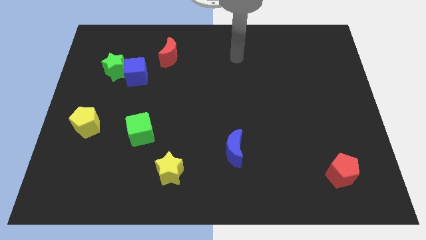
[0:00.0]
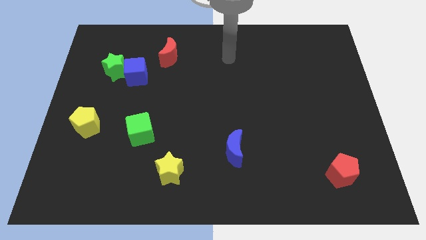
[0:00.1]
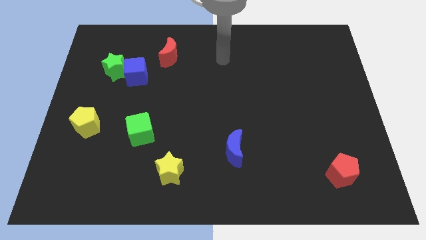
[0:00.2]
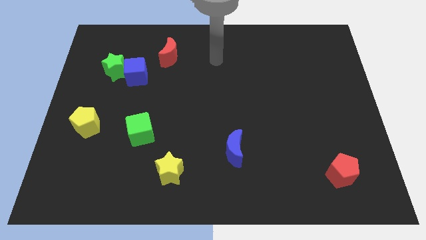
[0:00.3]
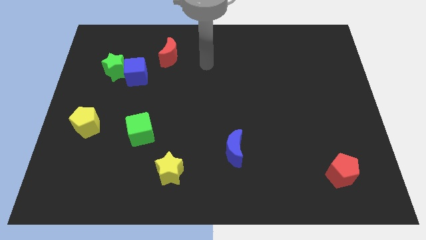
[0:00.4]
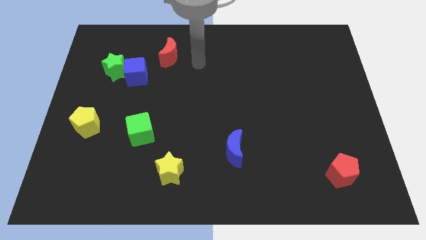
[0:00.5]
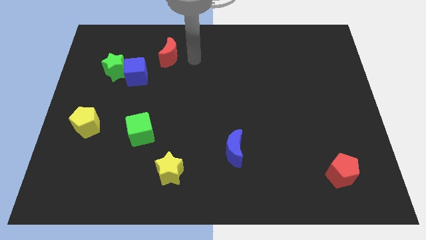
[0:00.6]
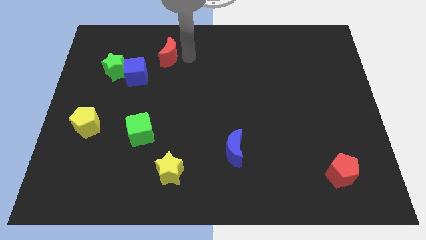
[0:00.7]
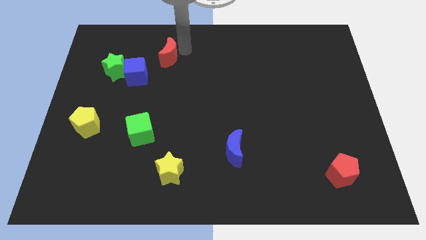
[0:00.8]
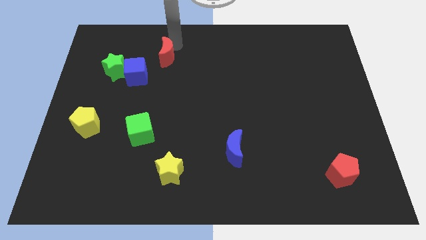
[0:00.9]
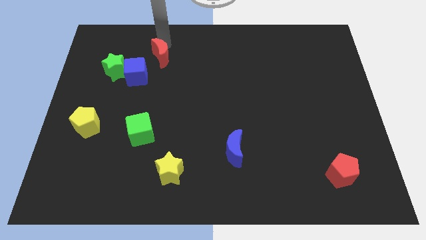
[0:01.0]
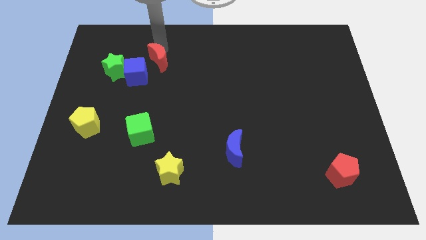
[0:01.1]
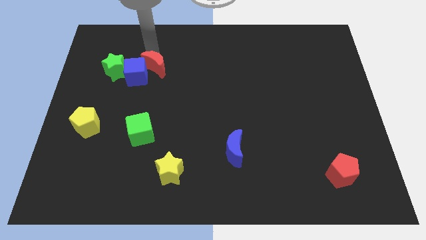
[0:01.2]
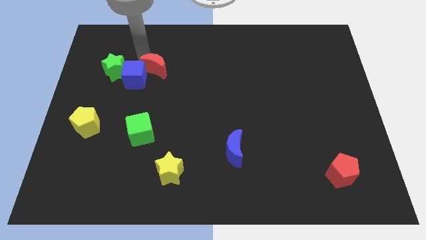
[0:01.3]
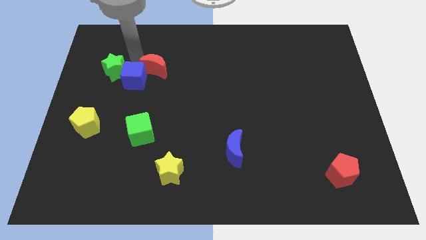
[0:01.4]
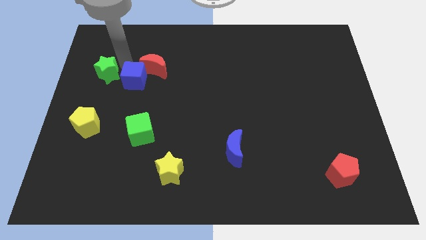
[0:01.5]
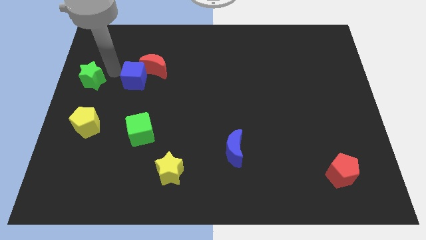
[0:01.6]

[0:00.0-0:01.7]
move the blue cube away from the green star

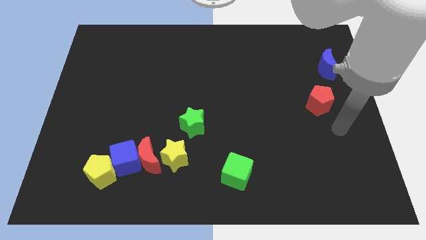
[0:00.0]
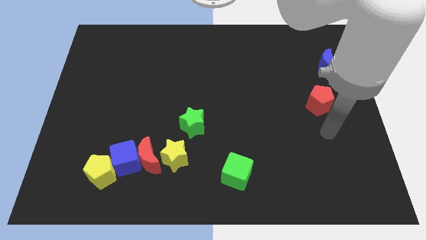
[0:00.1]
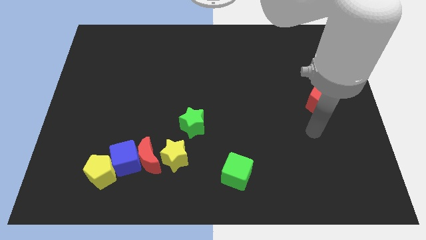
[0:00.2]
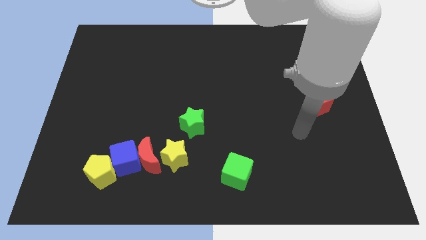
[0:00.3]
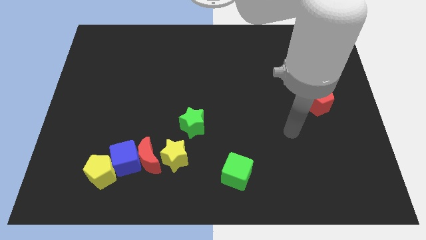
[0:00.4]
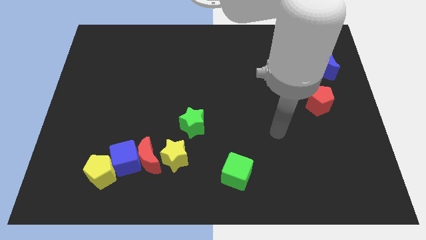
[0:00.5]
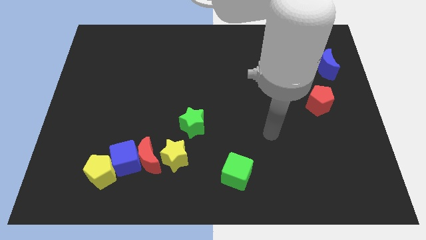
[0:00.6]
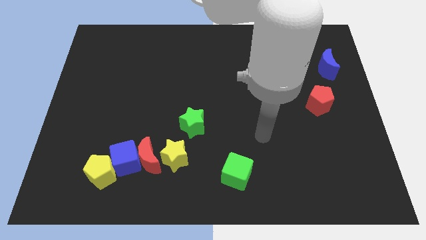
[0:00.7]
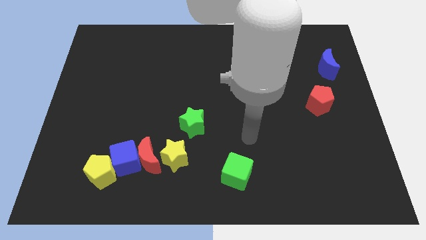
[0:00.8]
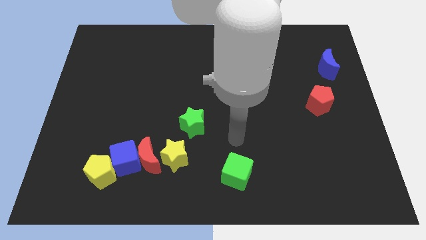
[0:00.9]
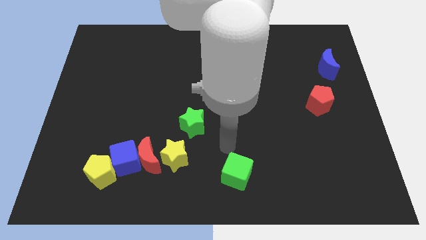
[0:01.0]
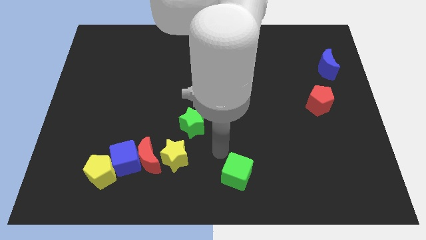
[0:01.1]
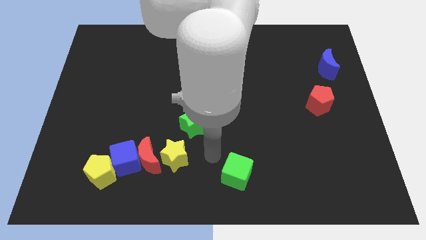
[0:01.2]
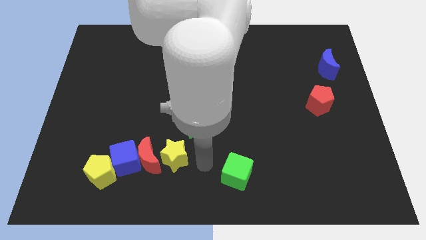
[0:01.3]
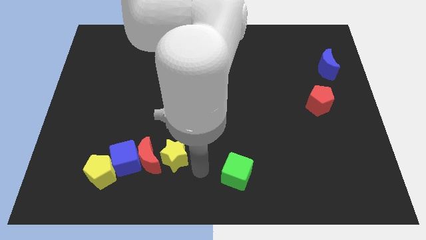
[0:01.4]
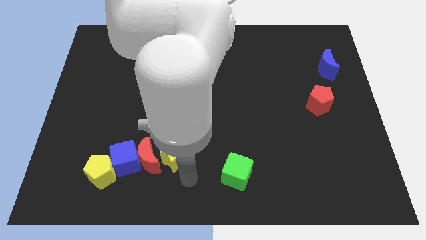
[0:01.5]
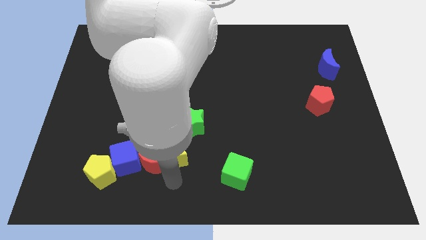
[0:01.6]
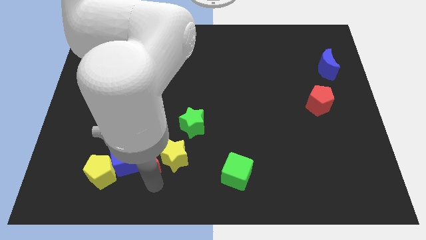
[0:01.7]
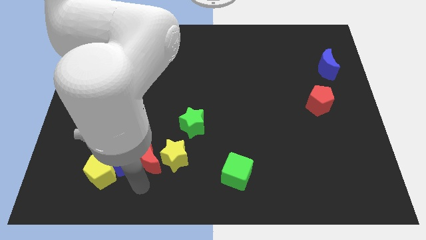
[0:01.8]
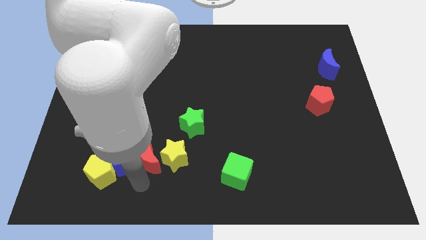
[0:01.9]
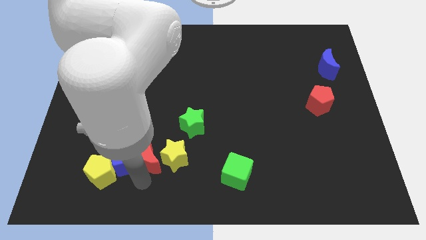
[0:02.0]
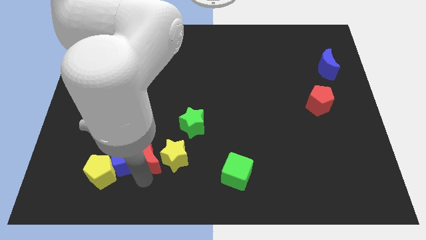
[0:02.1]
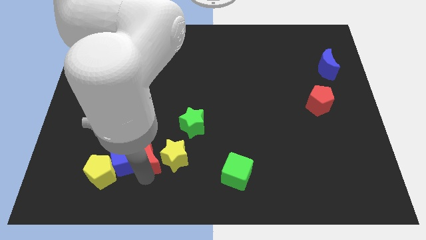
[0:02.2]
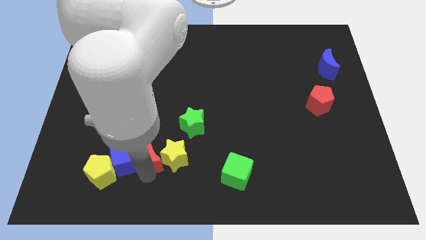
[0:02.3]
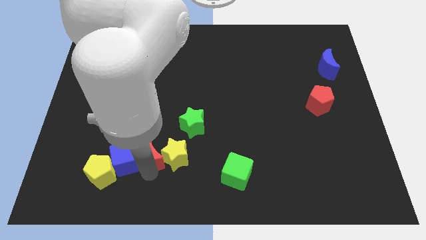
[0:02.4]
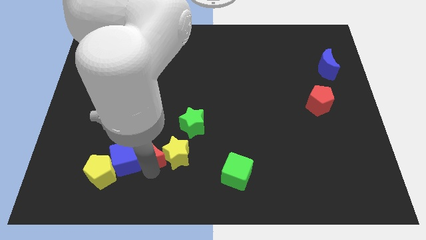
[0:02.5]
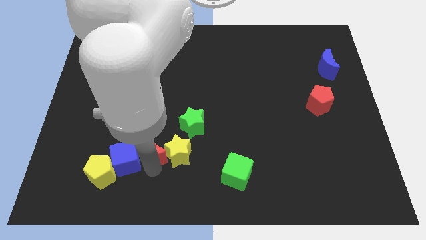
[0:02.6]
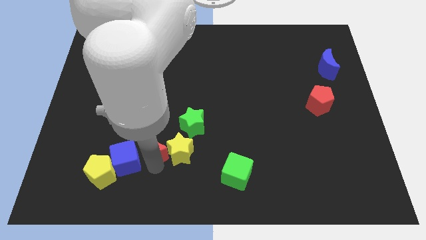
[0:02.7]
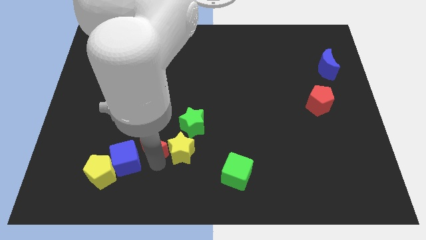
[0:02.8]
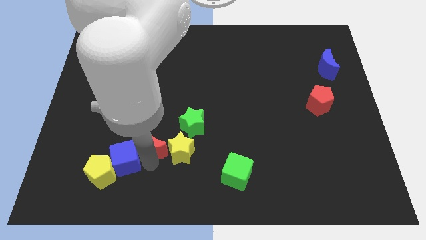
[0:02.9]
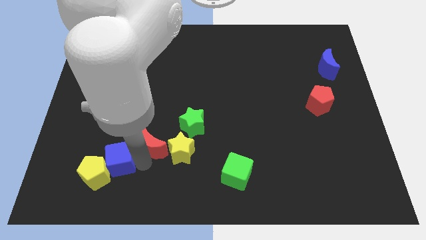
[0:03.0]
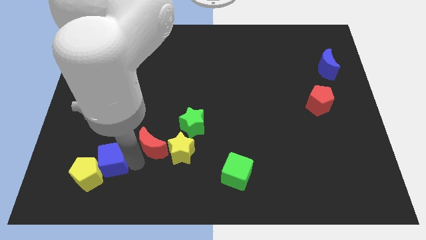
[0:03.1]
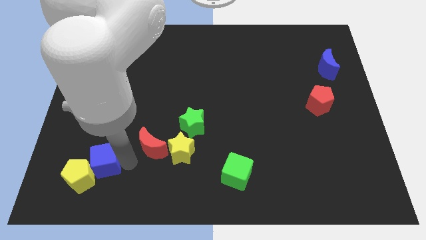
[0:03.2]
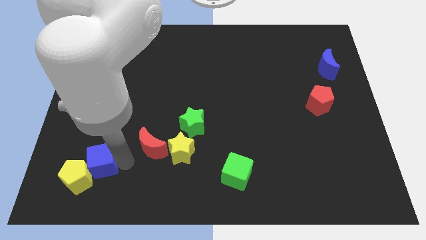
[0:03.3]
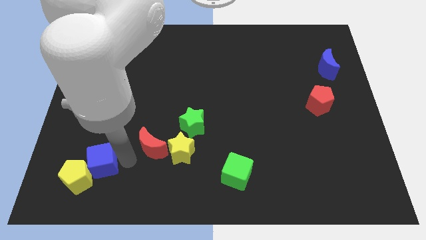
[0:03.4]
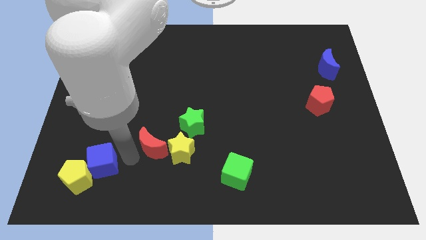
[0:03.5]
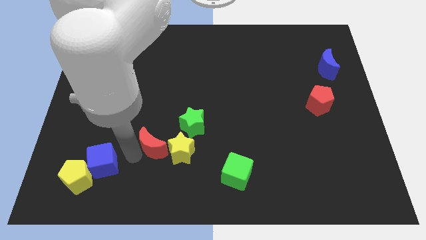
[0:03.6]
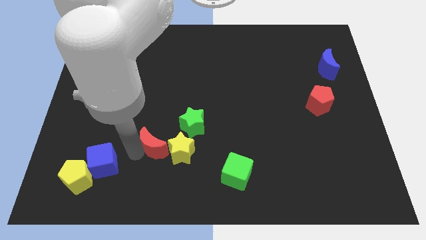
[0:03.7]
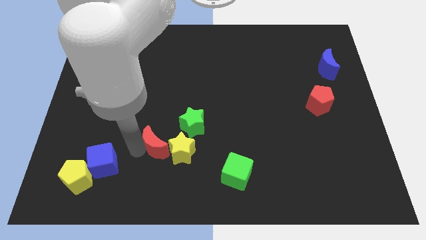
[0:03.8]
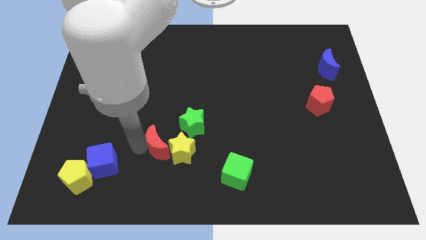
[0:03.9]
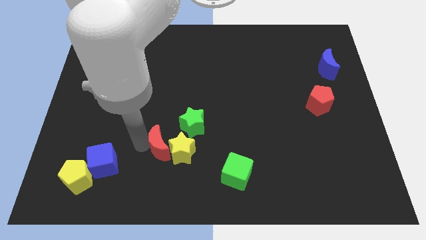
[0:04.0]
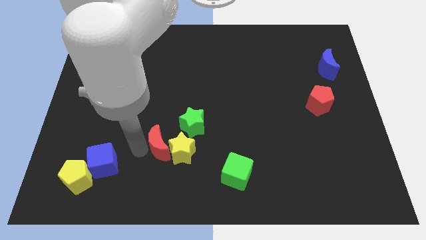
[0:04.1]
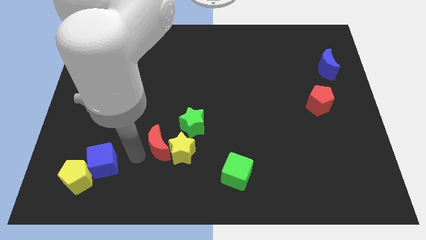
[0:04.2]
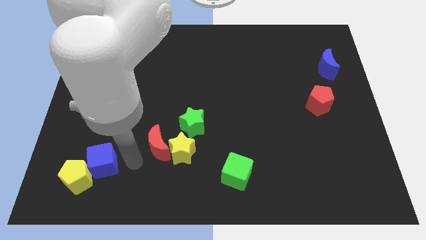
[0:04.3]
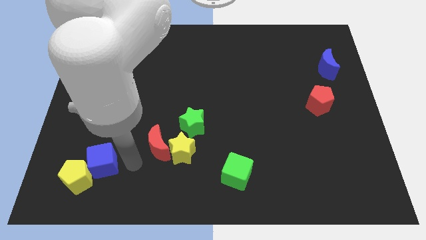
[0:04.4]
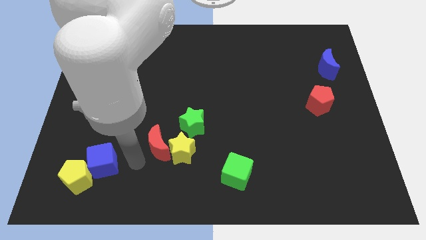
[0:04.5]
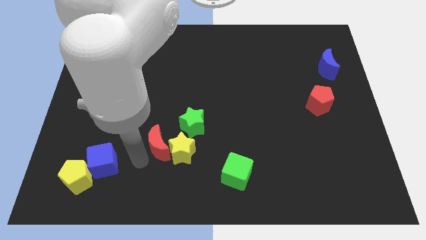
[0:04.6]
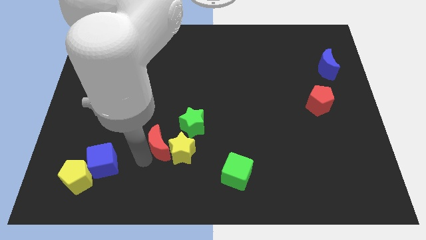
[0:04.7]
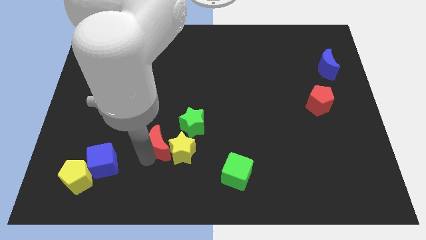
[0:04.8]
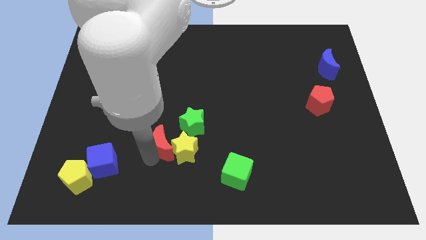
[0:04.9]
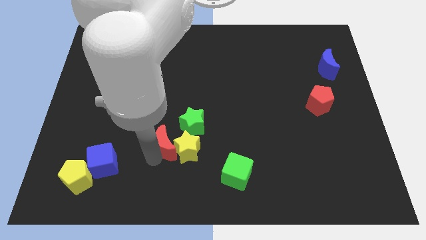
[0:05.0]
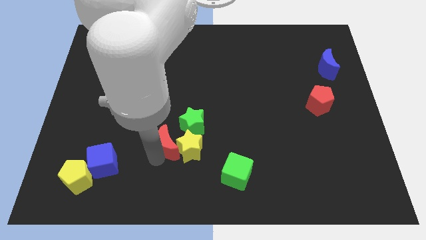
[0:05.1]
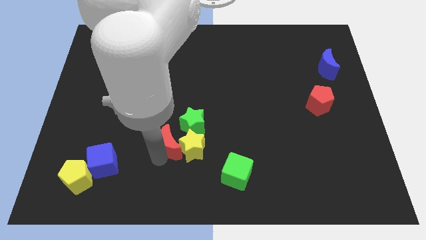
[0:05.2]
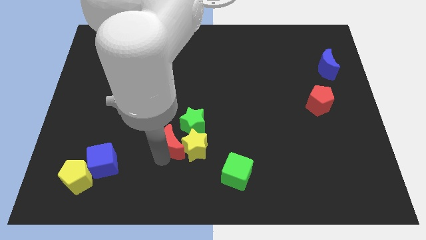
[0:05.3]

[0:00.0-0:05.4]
move the red moon away from the blue cube, yellow star, and yellow pentagon

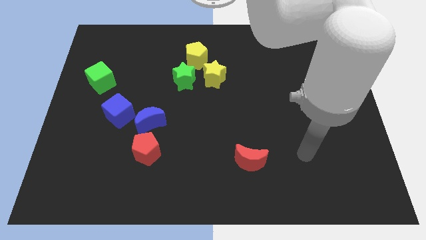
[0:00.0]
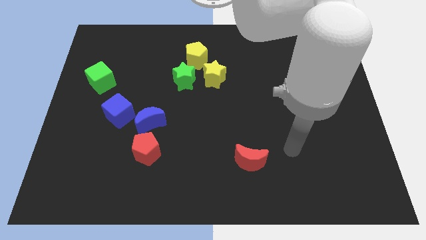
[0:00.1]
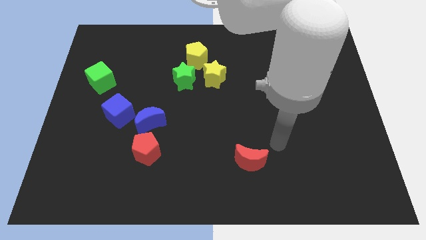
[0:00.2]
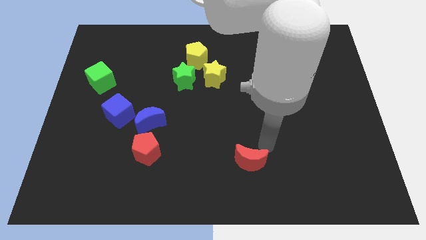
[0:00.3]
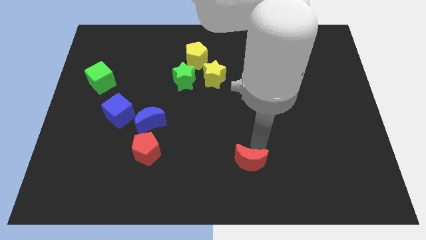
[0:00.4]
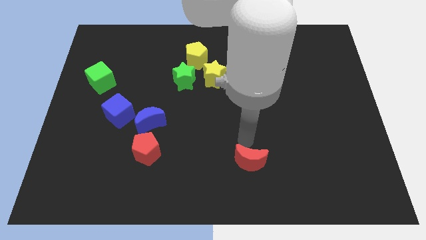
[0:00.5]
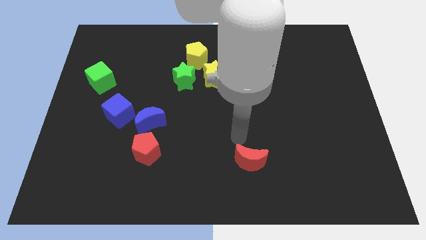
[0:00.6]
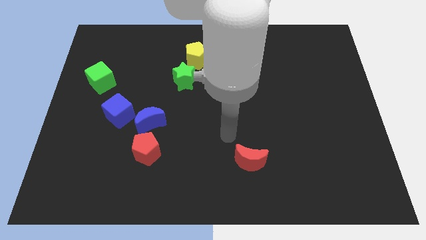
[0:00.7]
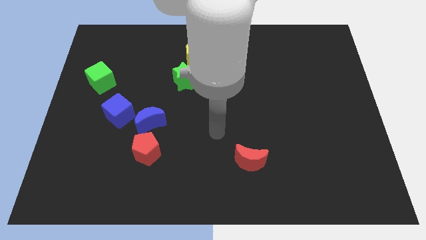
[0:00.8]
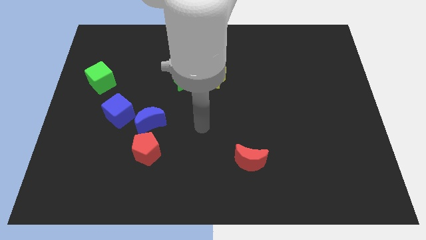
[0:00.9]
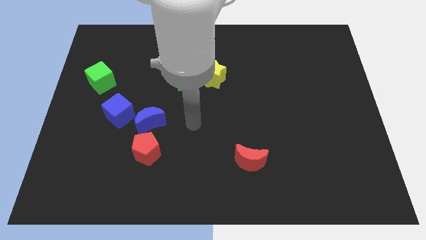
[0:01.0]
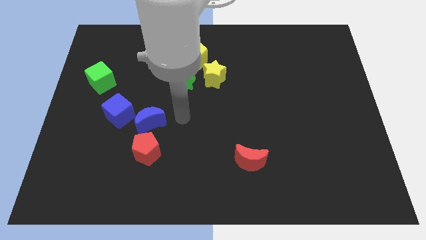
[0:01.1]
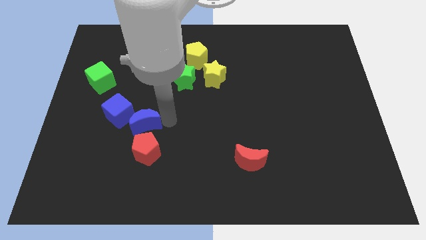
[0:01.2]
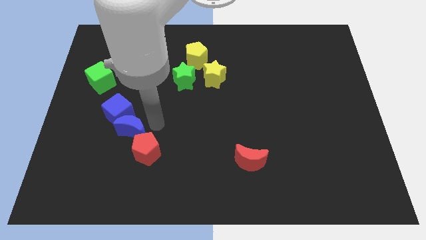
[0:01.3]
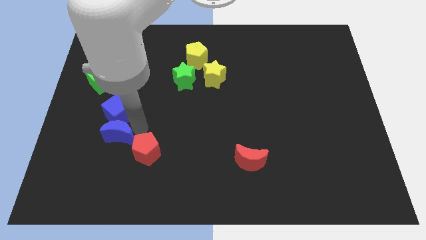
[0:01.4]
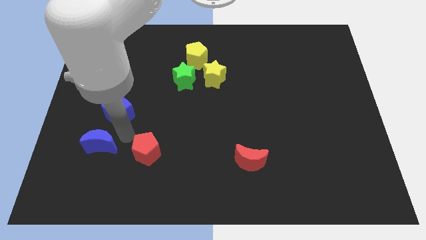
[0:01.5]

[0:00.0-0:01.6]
separate the red pentagon from the blue moon

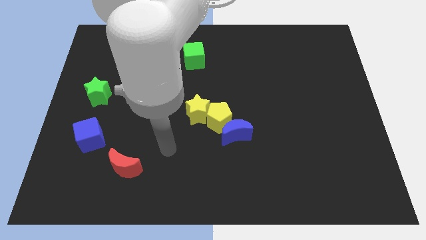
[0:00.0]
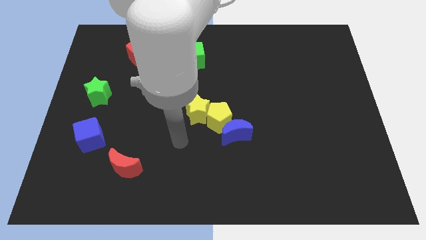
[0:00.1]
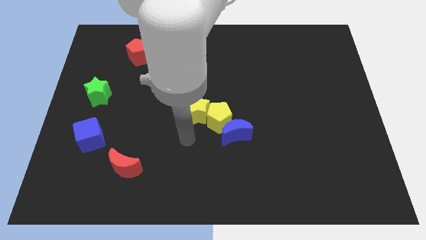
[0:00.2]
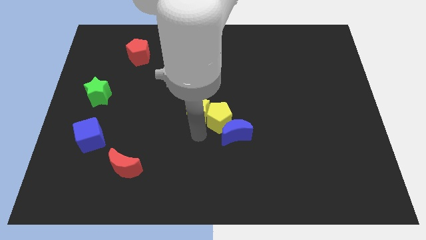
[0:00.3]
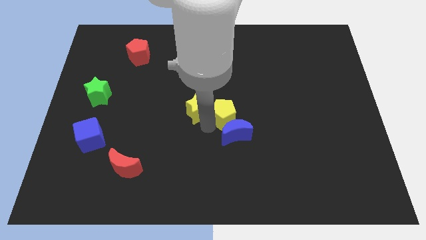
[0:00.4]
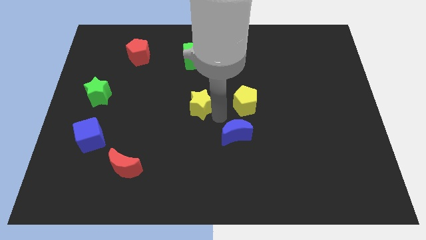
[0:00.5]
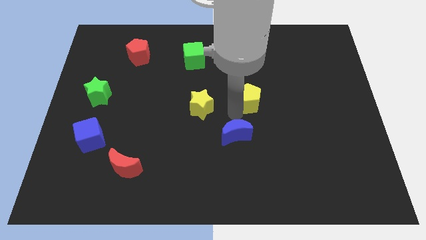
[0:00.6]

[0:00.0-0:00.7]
move the blue moon away from the yellow pentagon
